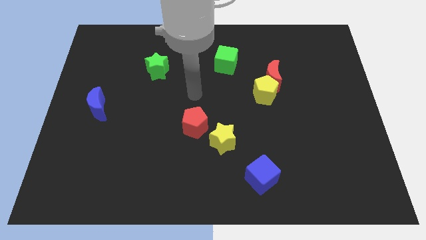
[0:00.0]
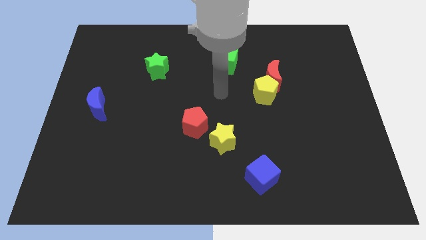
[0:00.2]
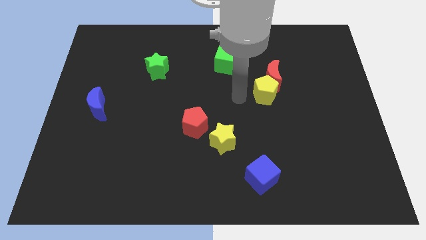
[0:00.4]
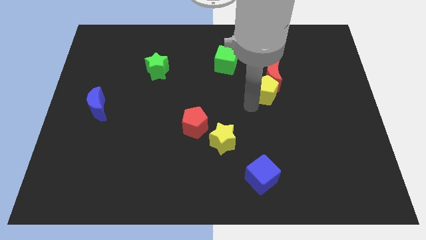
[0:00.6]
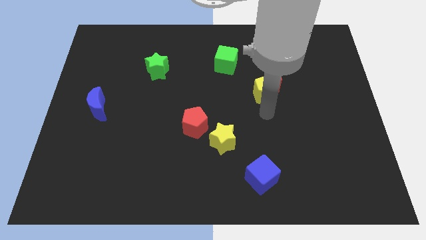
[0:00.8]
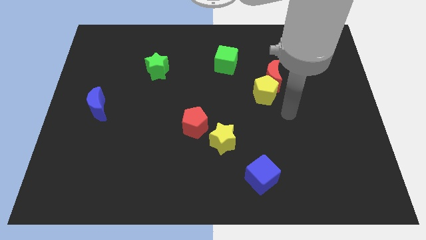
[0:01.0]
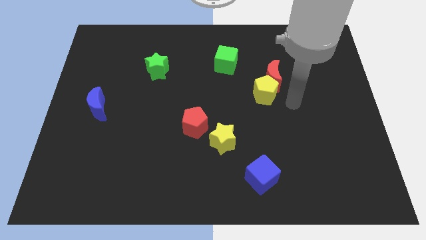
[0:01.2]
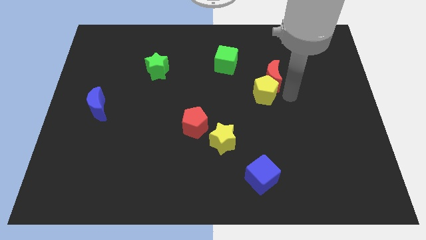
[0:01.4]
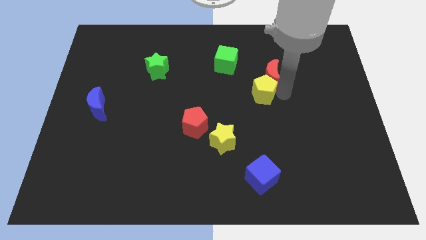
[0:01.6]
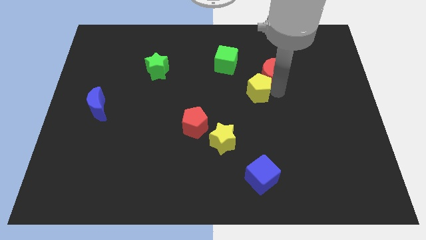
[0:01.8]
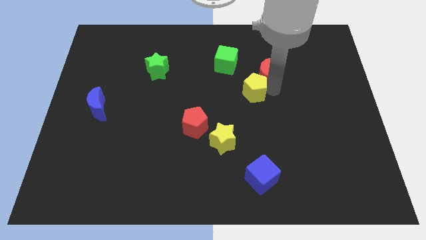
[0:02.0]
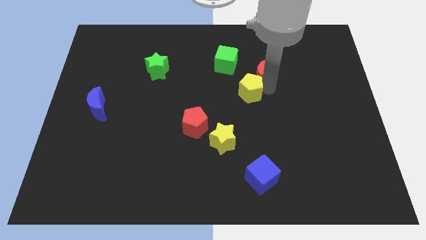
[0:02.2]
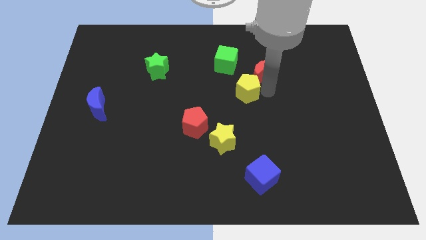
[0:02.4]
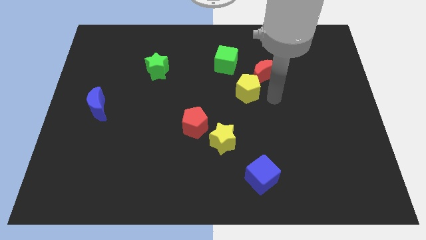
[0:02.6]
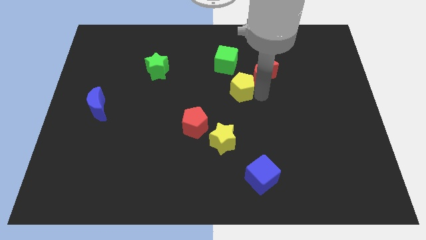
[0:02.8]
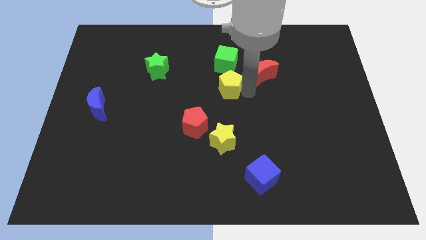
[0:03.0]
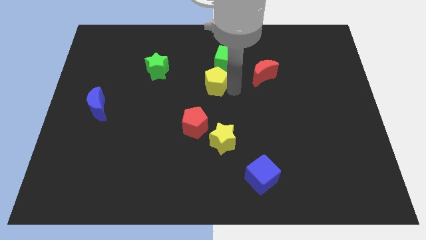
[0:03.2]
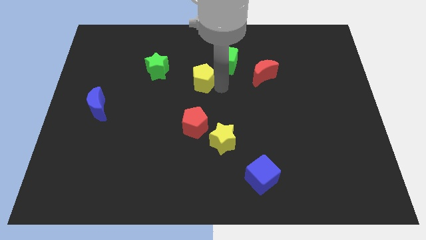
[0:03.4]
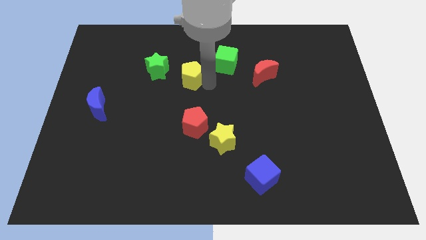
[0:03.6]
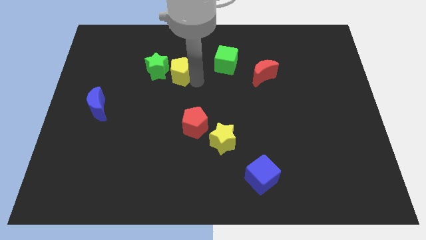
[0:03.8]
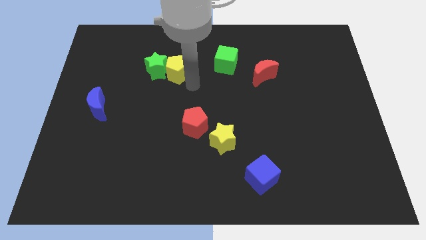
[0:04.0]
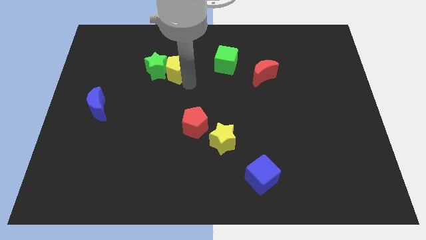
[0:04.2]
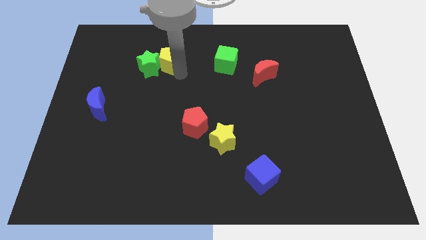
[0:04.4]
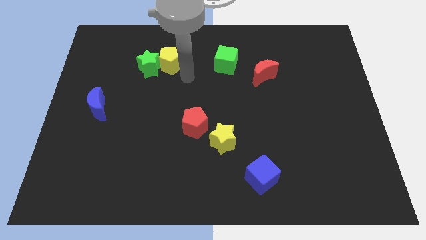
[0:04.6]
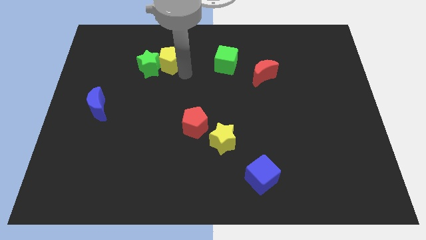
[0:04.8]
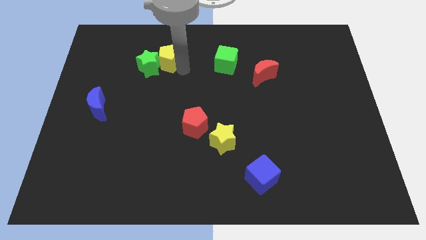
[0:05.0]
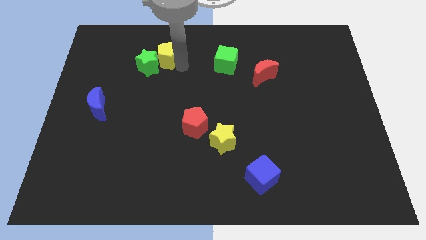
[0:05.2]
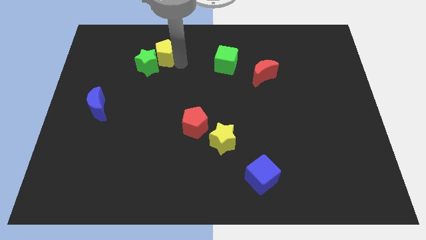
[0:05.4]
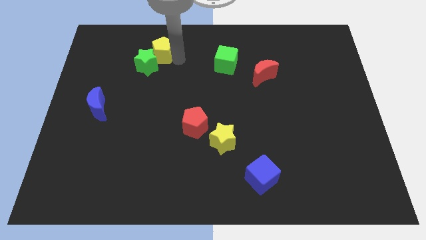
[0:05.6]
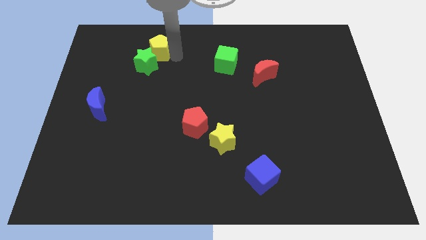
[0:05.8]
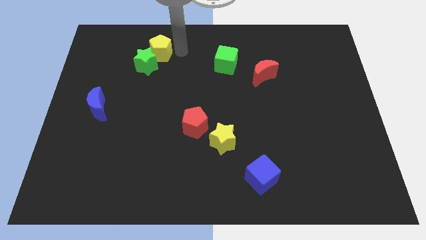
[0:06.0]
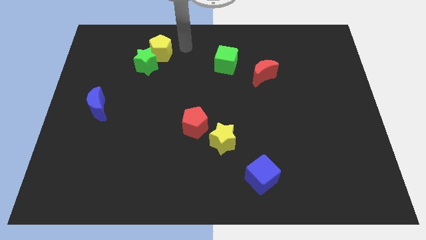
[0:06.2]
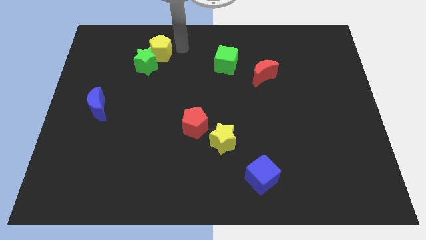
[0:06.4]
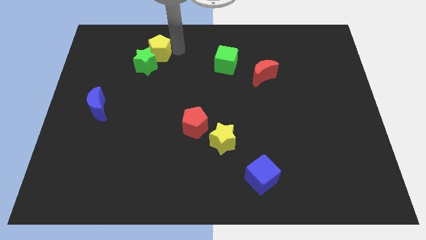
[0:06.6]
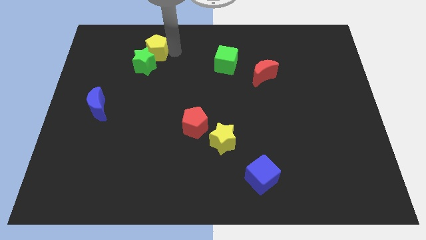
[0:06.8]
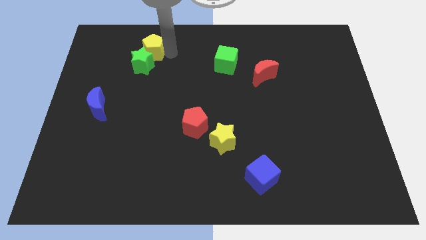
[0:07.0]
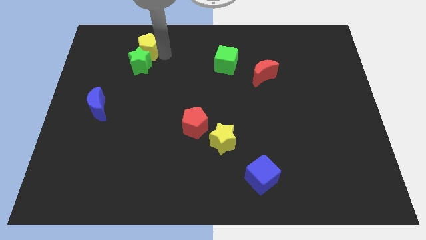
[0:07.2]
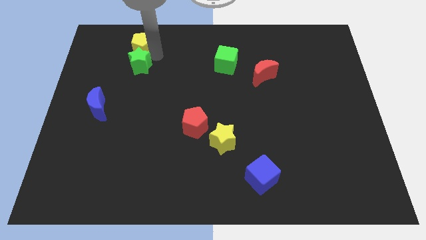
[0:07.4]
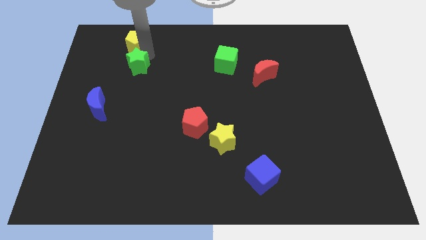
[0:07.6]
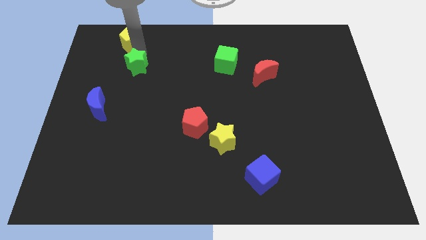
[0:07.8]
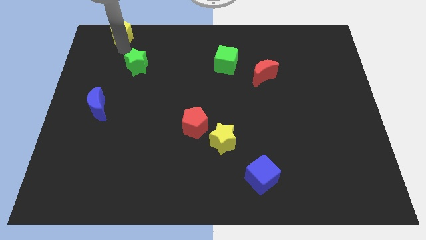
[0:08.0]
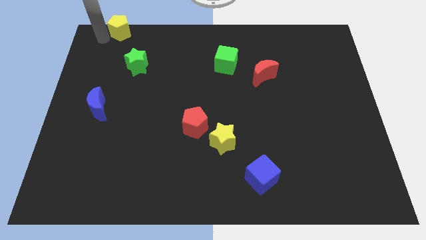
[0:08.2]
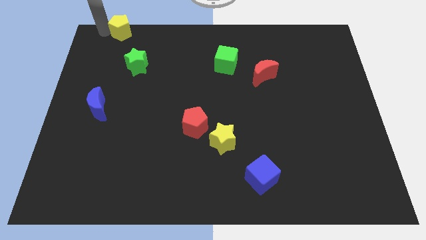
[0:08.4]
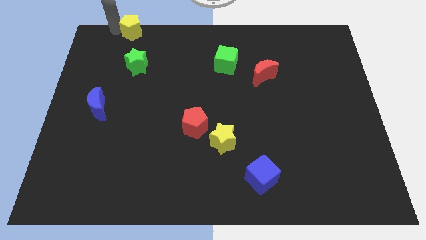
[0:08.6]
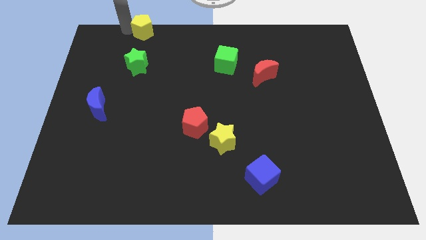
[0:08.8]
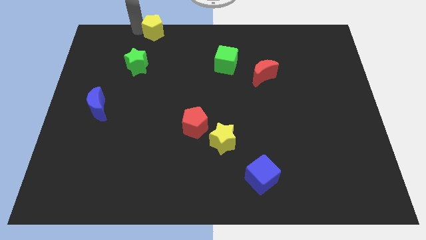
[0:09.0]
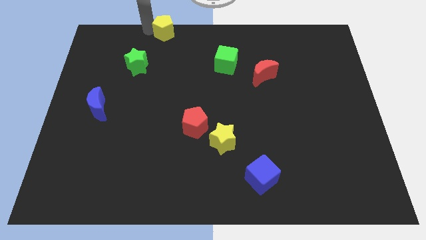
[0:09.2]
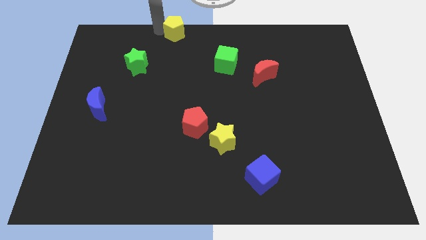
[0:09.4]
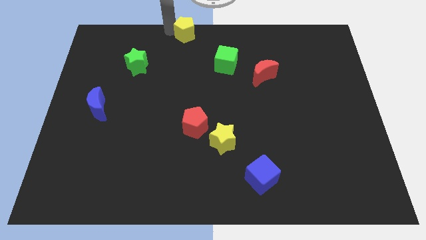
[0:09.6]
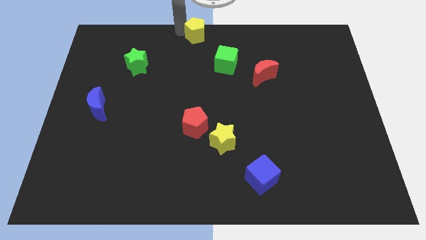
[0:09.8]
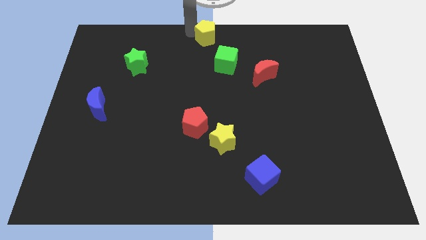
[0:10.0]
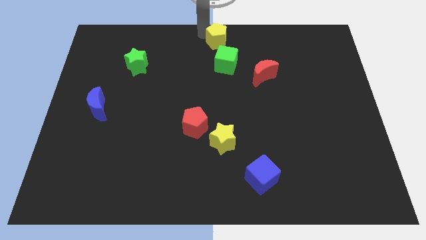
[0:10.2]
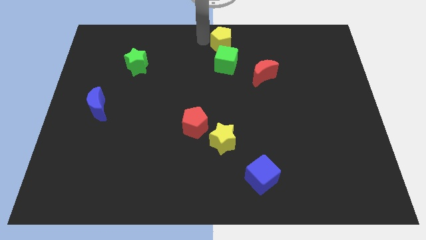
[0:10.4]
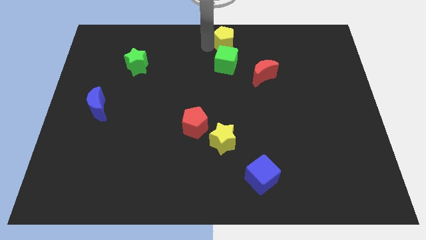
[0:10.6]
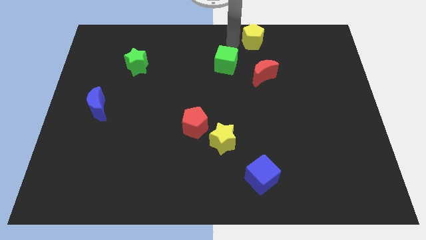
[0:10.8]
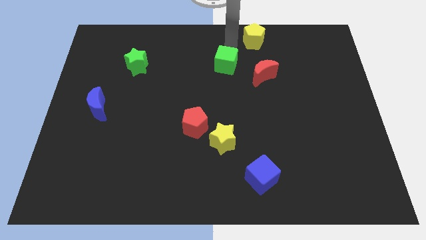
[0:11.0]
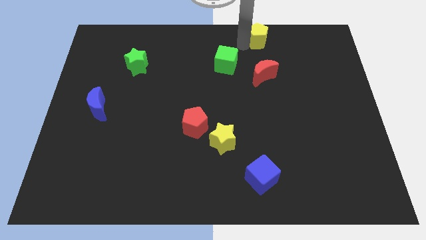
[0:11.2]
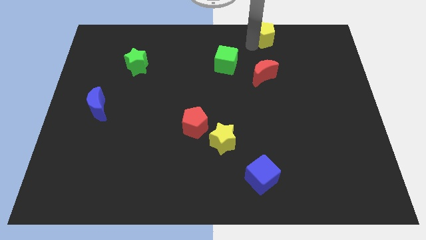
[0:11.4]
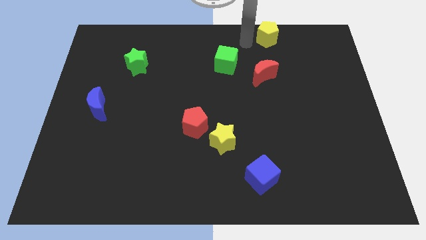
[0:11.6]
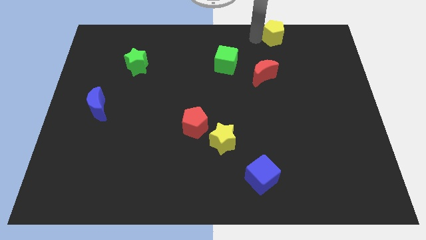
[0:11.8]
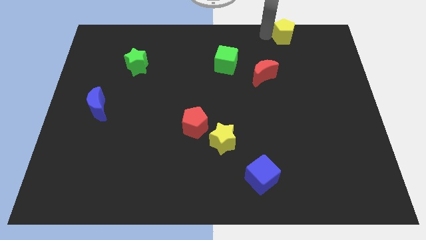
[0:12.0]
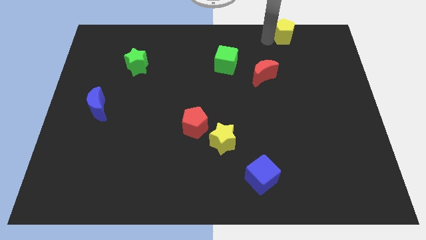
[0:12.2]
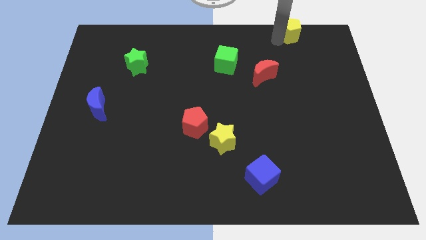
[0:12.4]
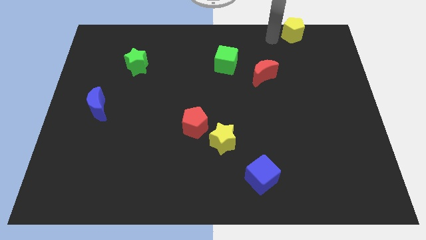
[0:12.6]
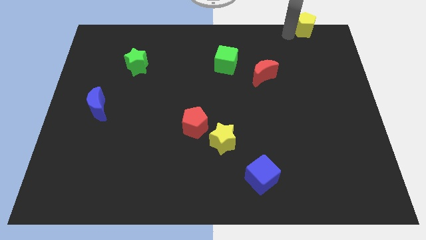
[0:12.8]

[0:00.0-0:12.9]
slide the yellow pentagon to the top right corner
